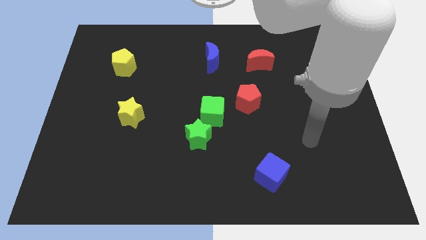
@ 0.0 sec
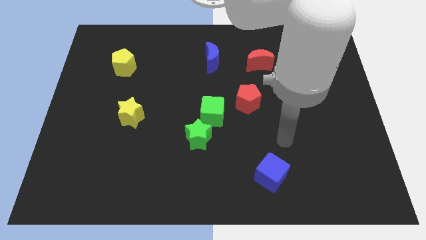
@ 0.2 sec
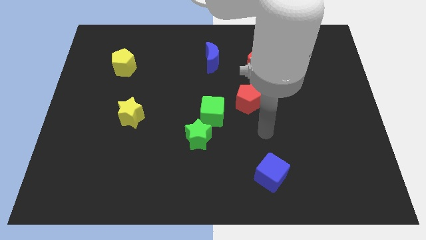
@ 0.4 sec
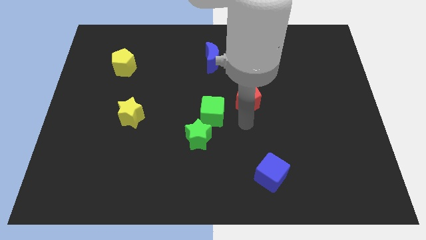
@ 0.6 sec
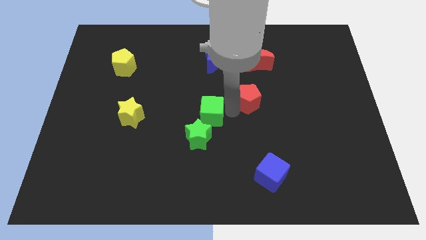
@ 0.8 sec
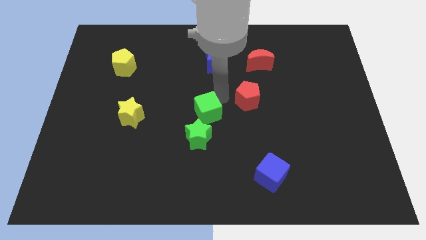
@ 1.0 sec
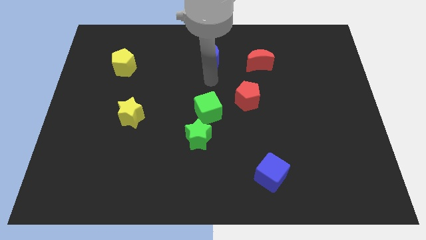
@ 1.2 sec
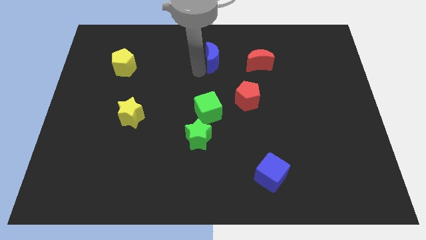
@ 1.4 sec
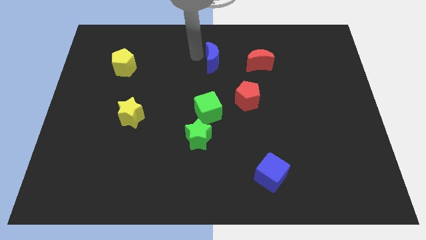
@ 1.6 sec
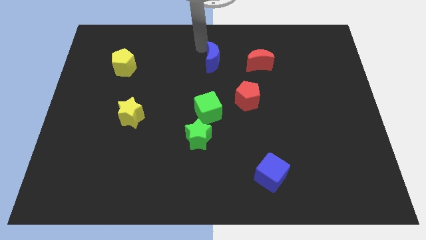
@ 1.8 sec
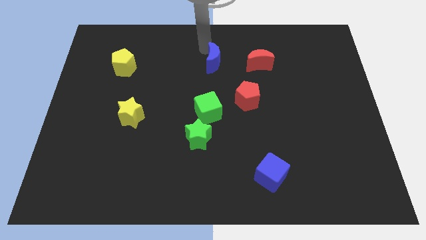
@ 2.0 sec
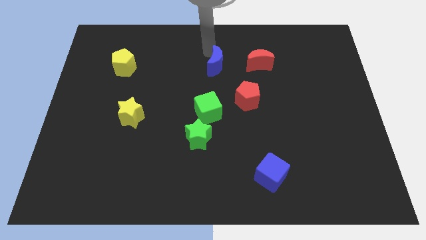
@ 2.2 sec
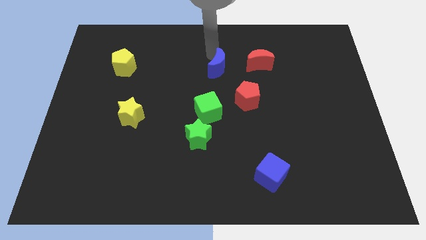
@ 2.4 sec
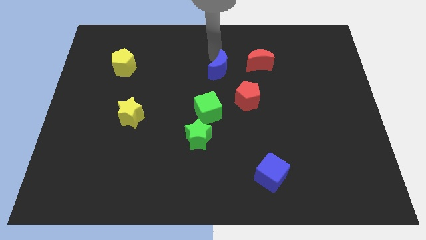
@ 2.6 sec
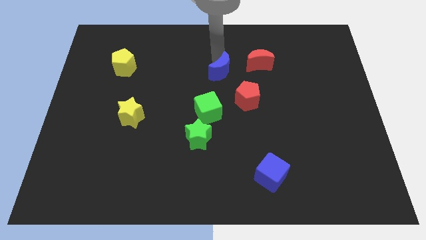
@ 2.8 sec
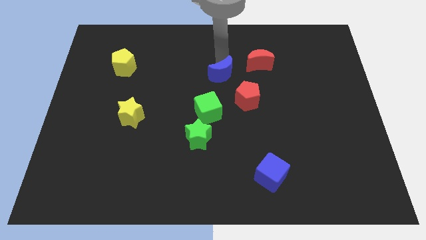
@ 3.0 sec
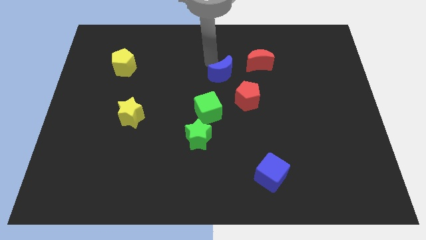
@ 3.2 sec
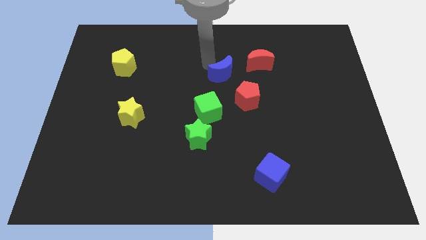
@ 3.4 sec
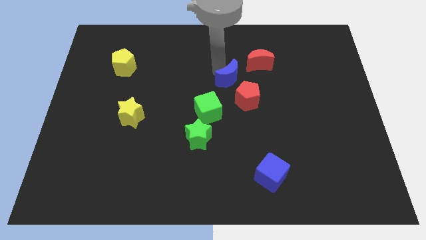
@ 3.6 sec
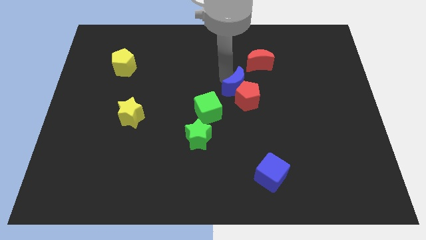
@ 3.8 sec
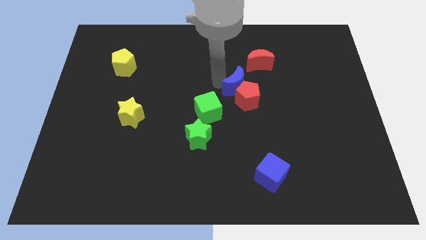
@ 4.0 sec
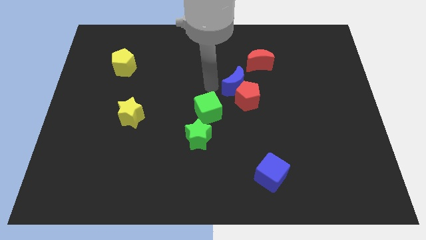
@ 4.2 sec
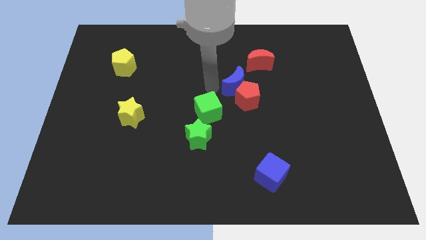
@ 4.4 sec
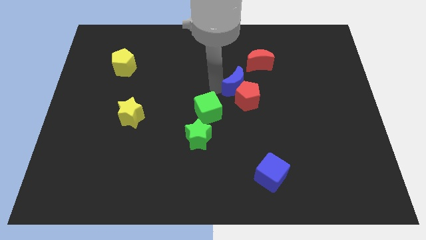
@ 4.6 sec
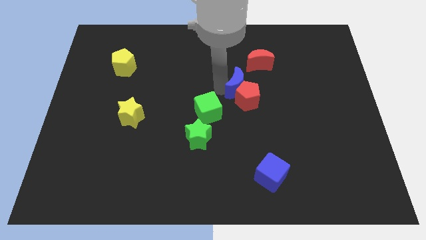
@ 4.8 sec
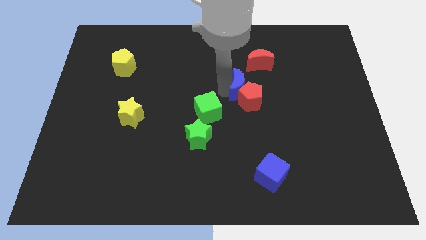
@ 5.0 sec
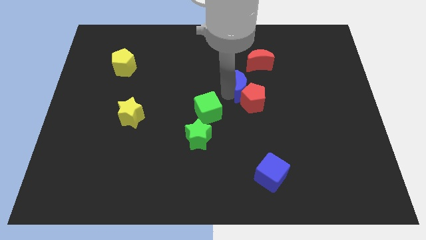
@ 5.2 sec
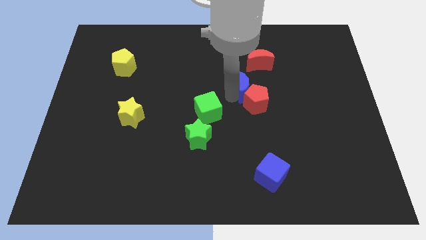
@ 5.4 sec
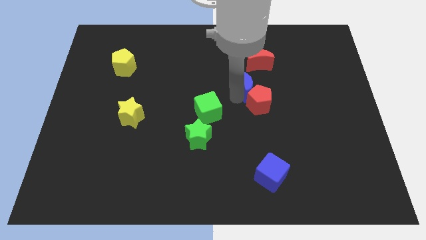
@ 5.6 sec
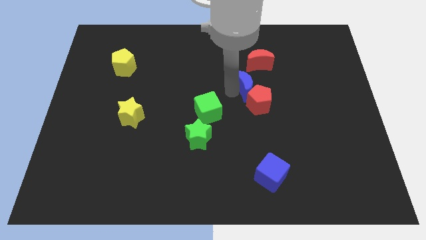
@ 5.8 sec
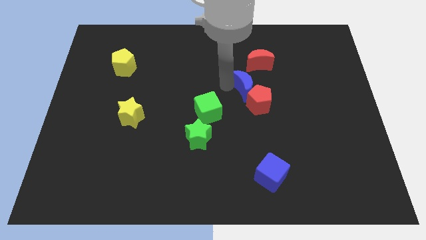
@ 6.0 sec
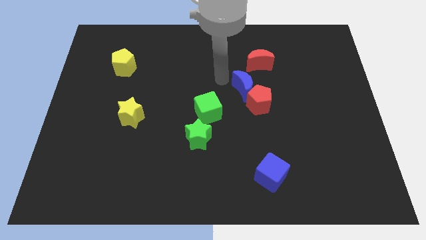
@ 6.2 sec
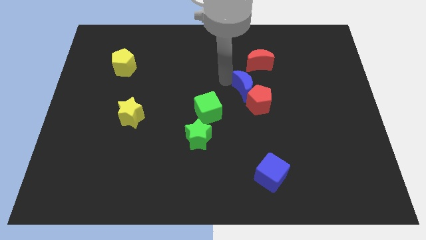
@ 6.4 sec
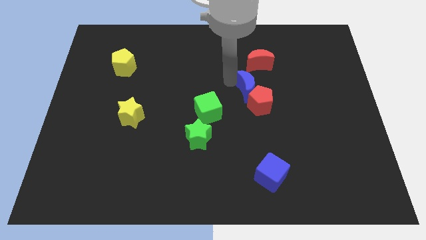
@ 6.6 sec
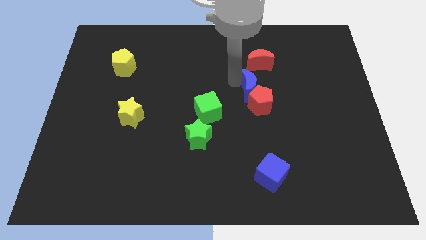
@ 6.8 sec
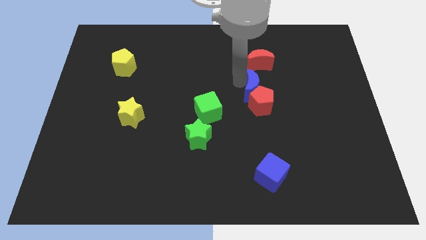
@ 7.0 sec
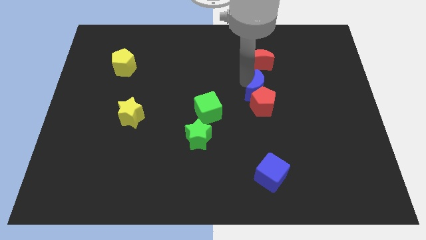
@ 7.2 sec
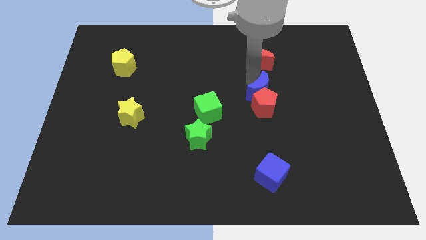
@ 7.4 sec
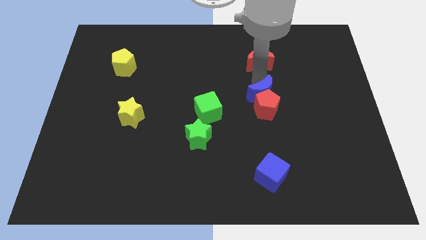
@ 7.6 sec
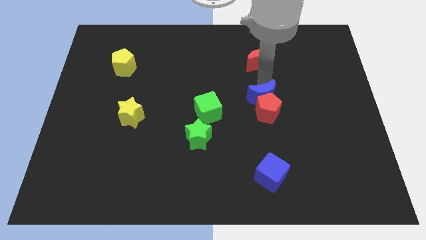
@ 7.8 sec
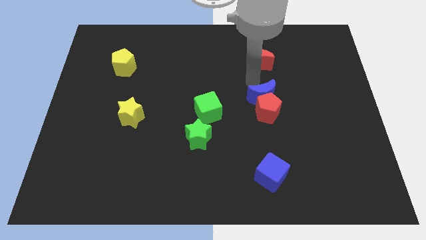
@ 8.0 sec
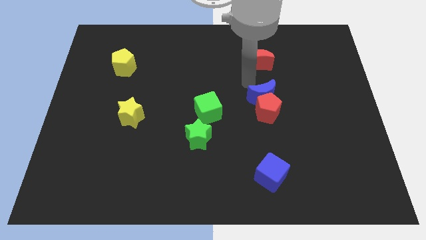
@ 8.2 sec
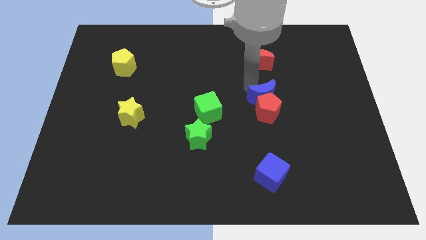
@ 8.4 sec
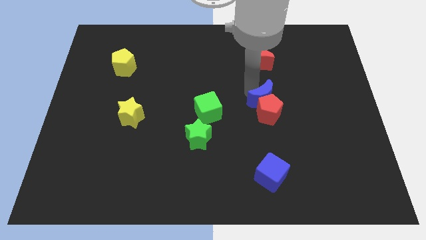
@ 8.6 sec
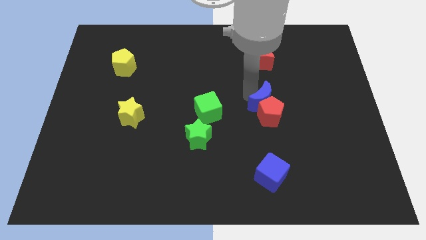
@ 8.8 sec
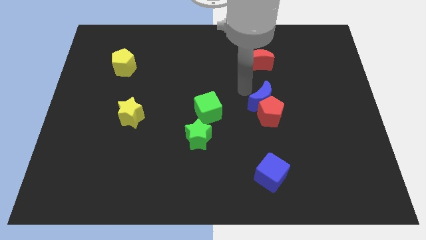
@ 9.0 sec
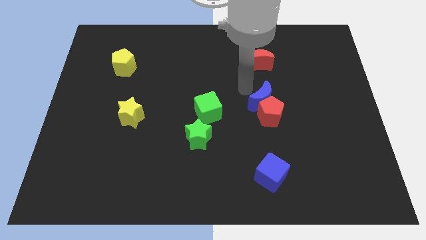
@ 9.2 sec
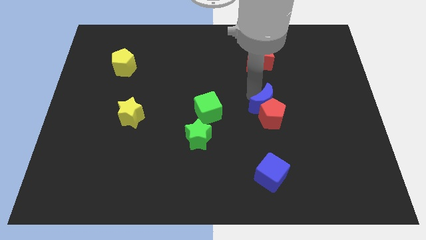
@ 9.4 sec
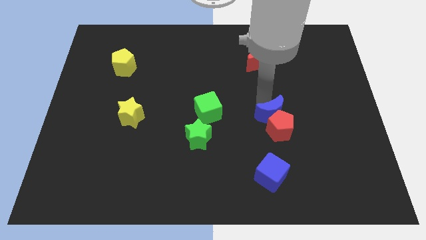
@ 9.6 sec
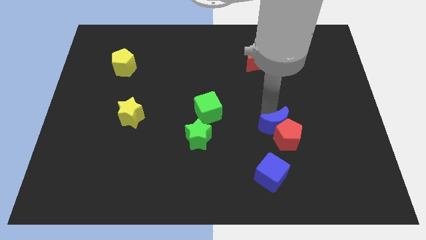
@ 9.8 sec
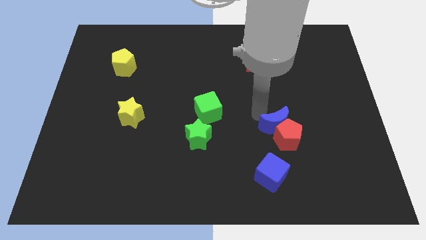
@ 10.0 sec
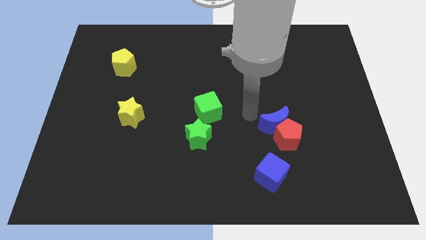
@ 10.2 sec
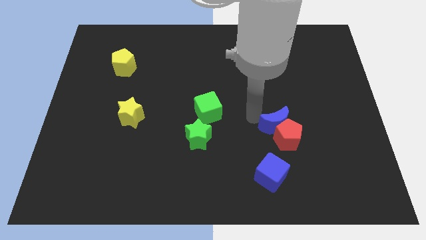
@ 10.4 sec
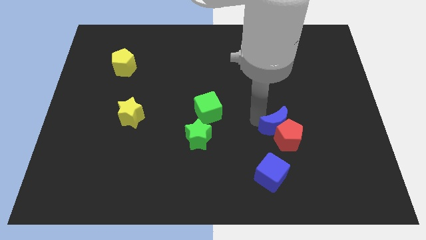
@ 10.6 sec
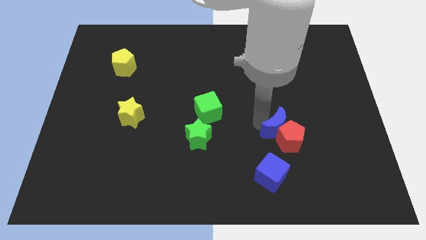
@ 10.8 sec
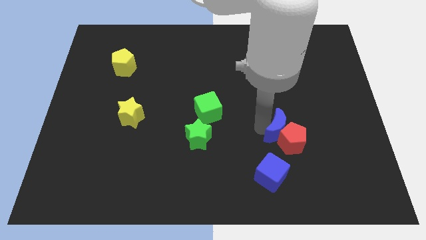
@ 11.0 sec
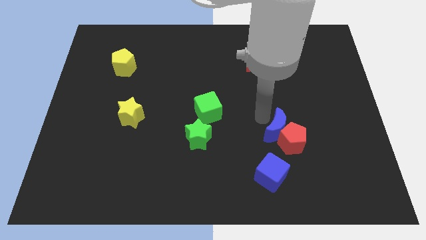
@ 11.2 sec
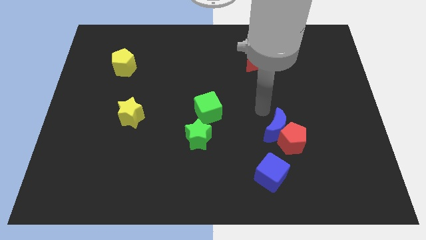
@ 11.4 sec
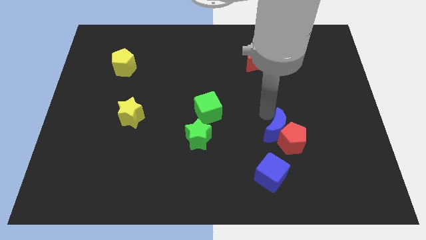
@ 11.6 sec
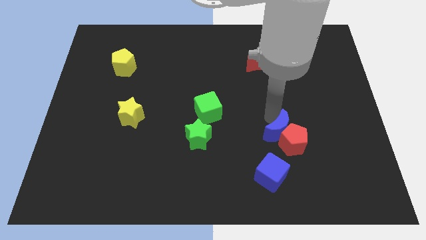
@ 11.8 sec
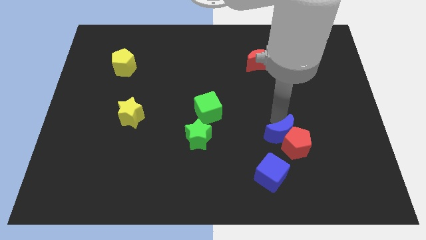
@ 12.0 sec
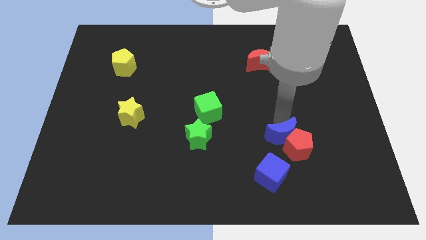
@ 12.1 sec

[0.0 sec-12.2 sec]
put the blue moon diagonally up and to the right of the blue cube

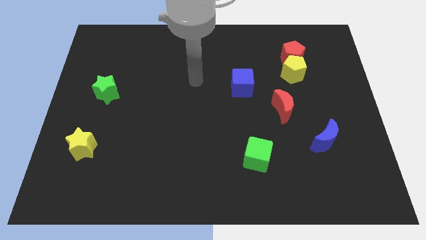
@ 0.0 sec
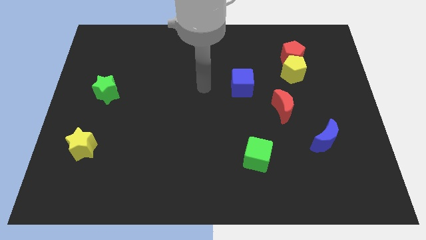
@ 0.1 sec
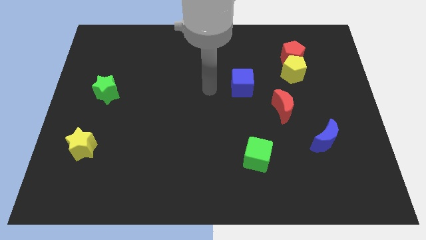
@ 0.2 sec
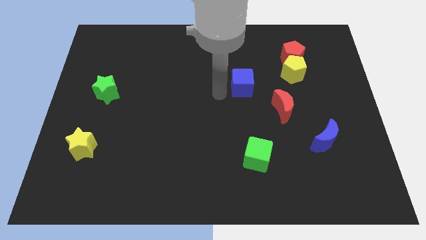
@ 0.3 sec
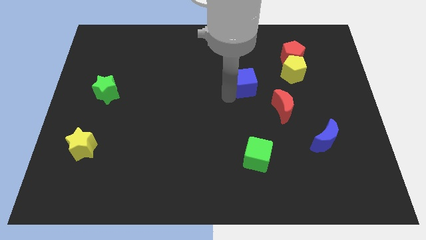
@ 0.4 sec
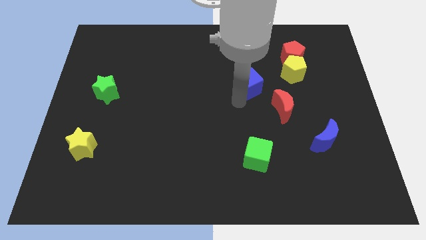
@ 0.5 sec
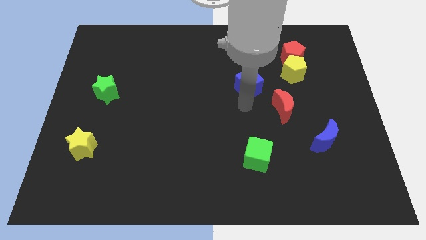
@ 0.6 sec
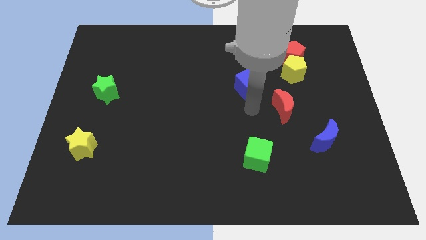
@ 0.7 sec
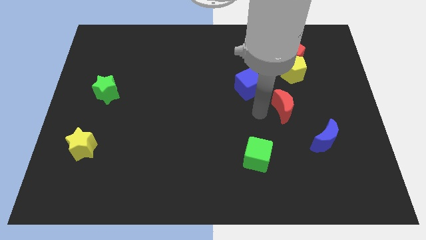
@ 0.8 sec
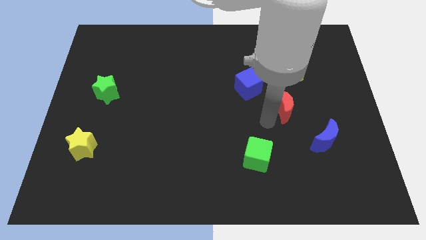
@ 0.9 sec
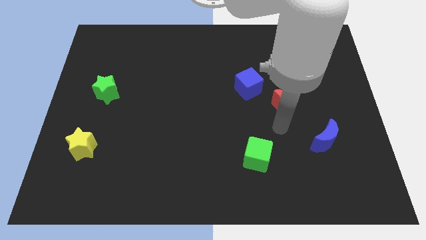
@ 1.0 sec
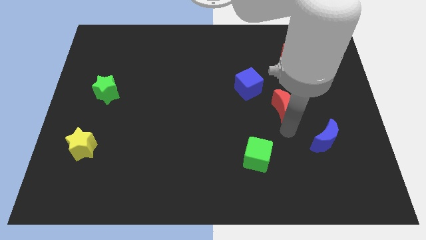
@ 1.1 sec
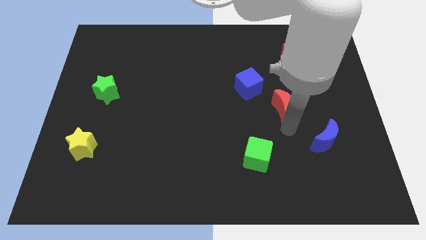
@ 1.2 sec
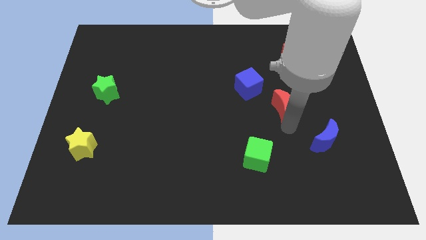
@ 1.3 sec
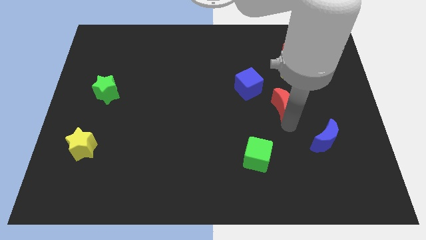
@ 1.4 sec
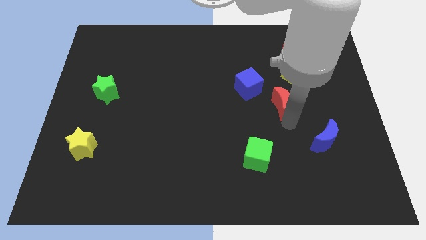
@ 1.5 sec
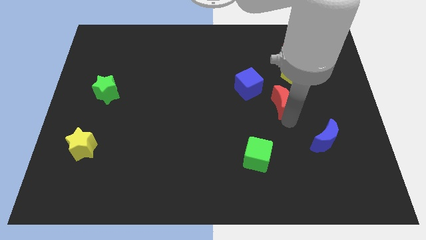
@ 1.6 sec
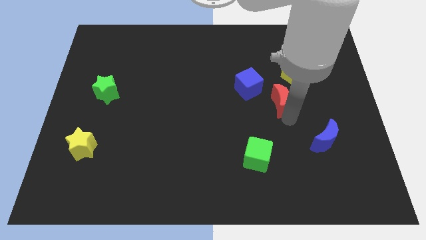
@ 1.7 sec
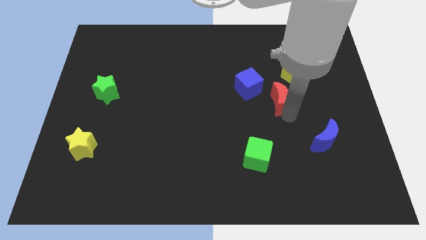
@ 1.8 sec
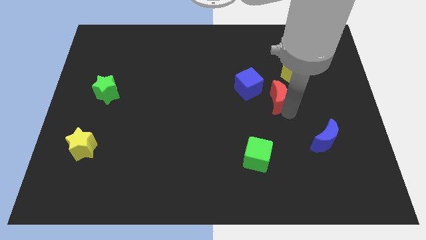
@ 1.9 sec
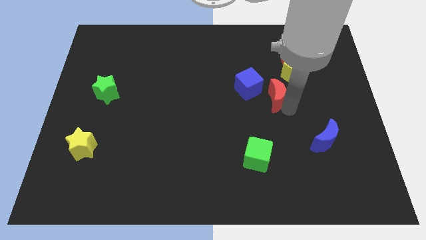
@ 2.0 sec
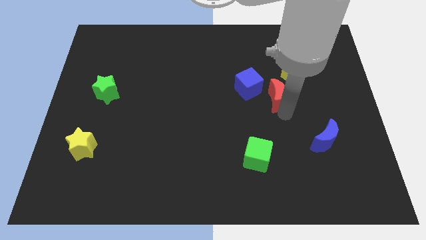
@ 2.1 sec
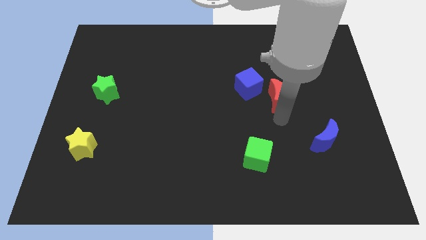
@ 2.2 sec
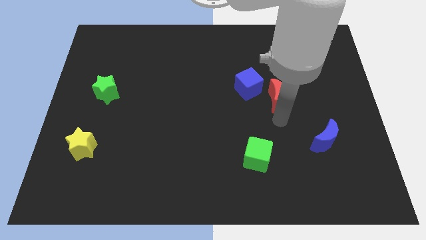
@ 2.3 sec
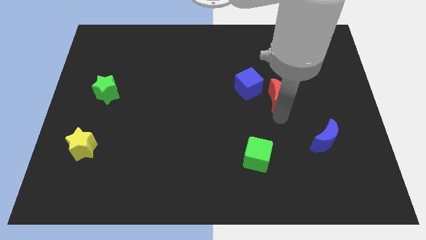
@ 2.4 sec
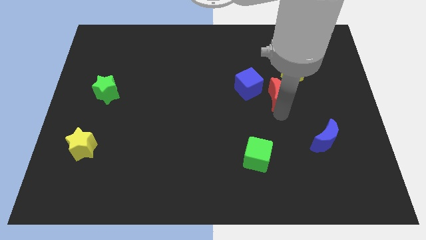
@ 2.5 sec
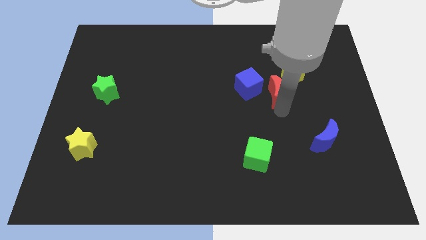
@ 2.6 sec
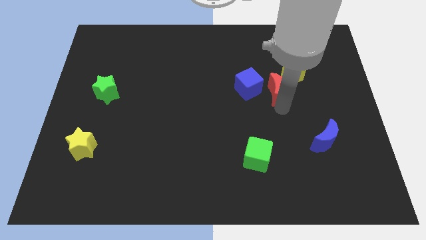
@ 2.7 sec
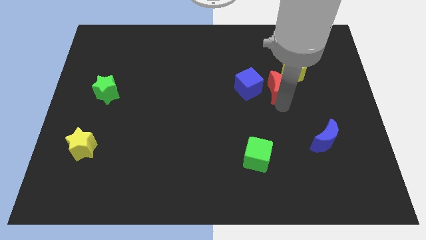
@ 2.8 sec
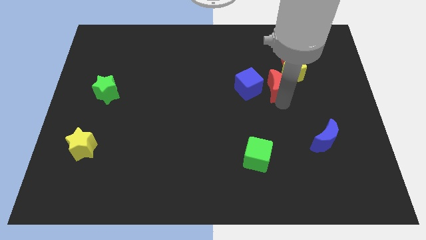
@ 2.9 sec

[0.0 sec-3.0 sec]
move the red moon to the bottom left of the red pentagon
